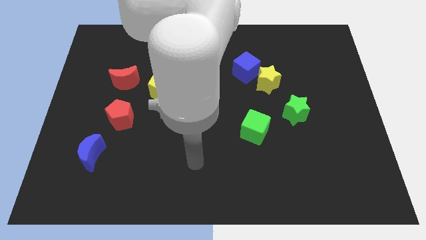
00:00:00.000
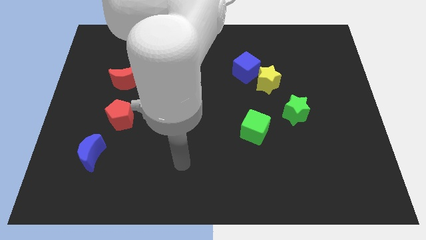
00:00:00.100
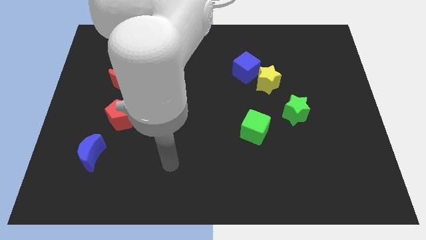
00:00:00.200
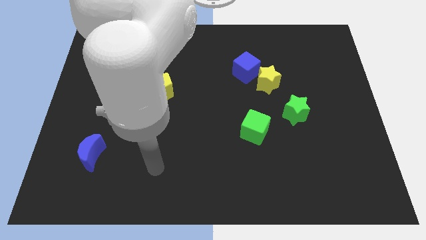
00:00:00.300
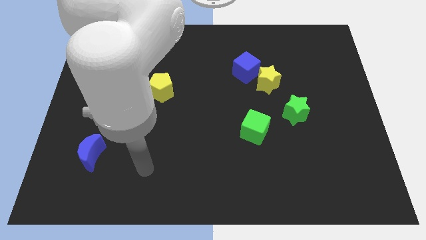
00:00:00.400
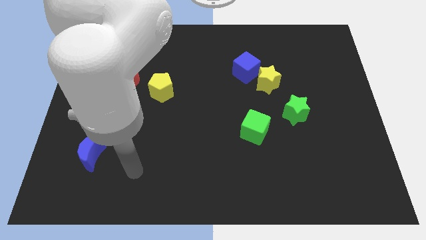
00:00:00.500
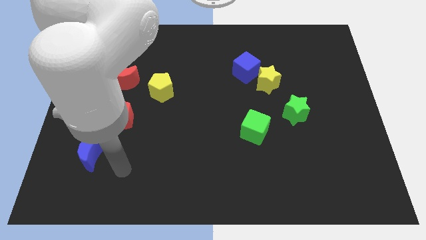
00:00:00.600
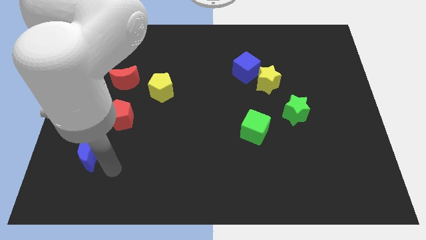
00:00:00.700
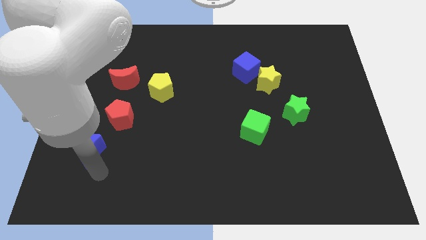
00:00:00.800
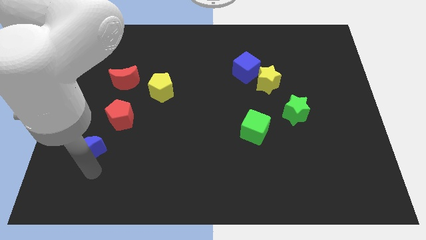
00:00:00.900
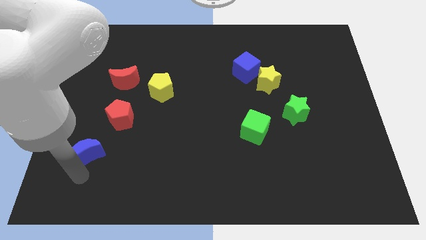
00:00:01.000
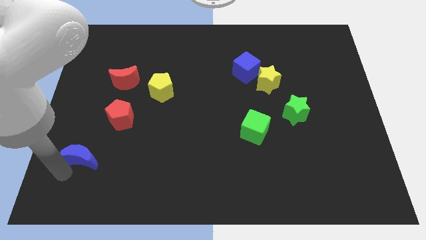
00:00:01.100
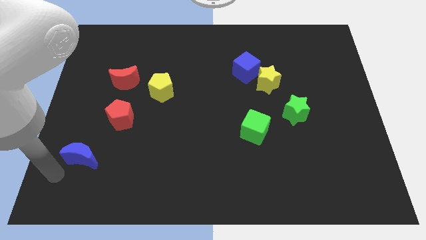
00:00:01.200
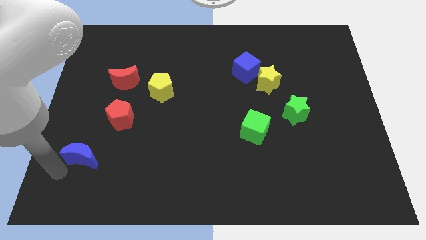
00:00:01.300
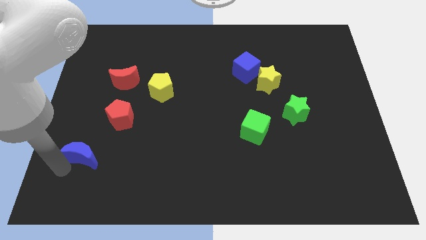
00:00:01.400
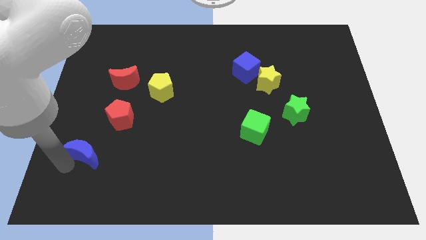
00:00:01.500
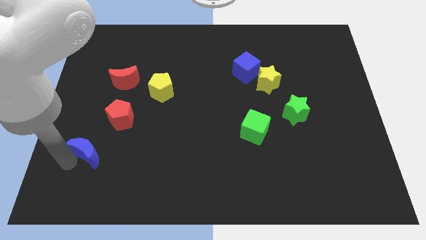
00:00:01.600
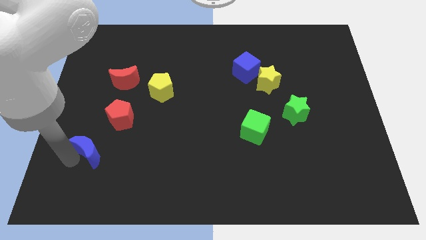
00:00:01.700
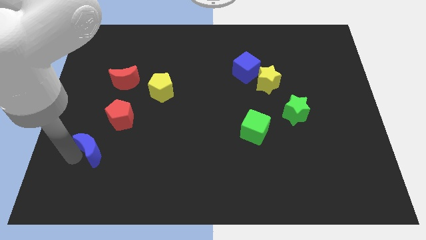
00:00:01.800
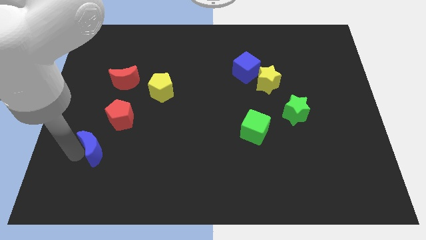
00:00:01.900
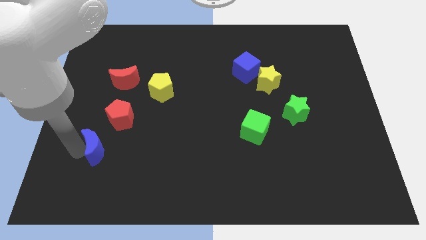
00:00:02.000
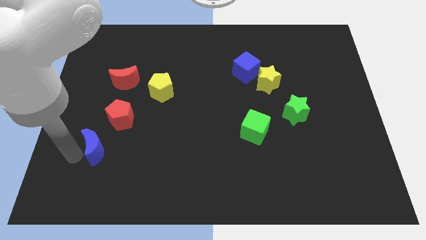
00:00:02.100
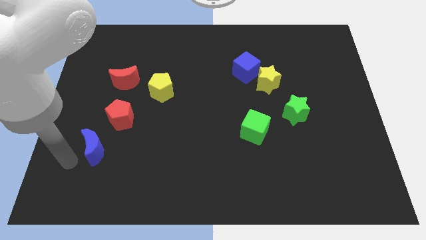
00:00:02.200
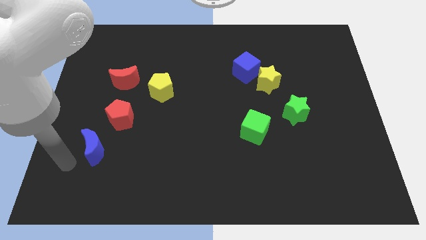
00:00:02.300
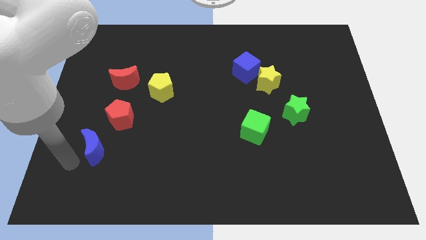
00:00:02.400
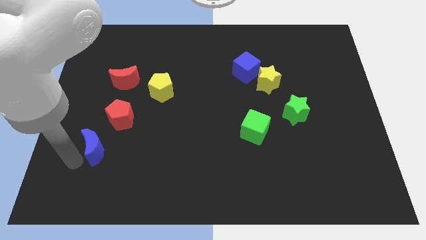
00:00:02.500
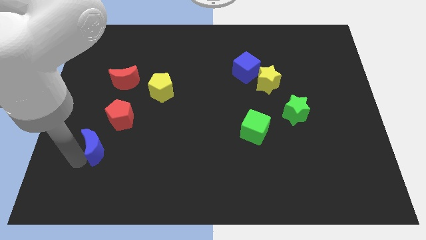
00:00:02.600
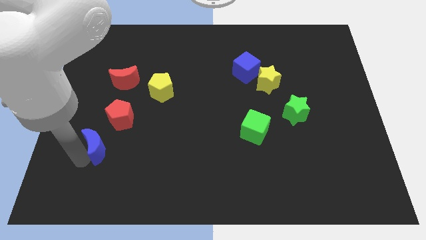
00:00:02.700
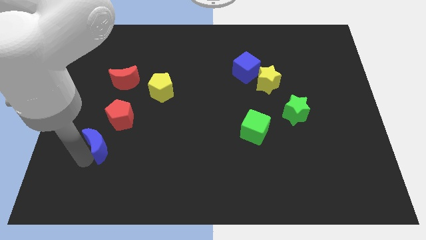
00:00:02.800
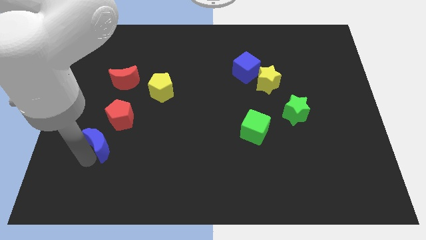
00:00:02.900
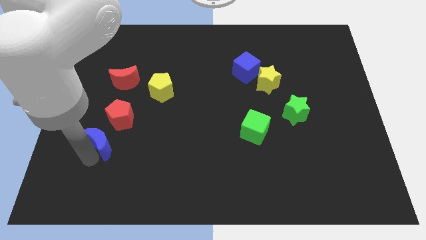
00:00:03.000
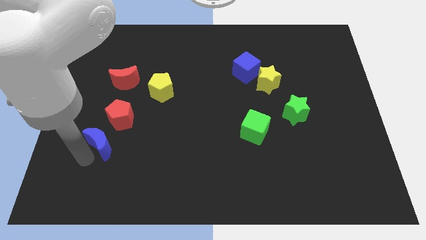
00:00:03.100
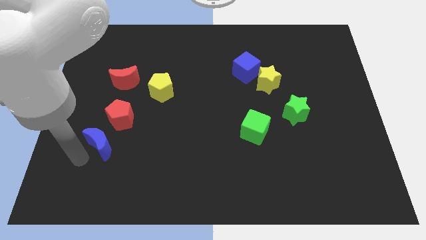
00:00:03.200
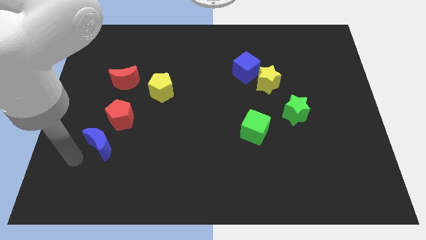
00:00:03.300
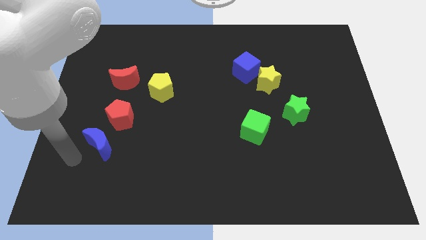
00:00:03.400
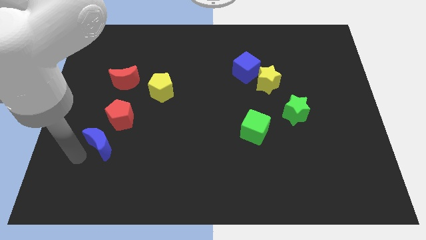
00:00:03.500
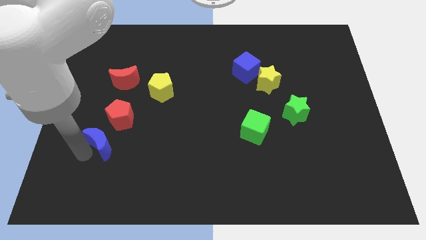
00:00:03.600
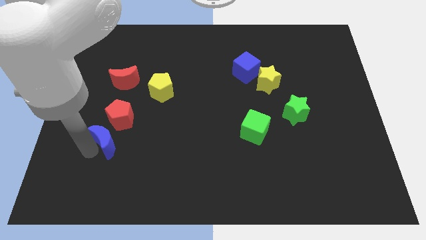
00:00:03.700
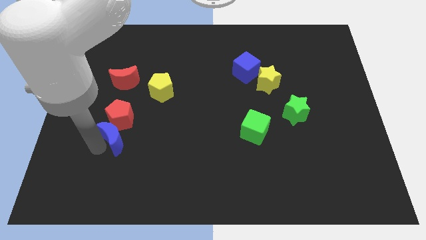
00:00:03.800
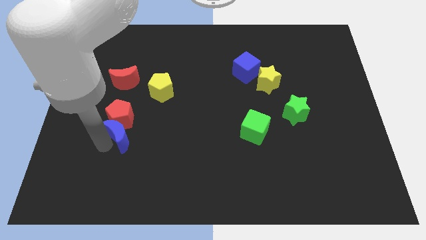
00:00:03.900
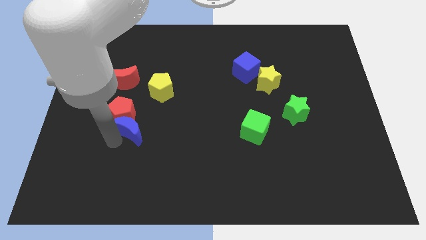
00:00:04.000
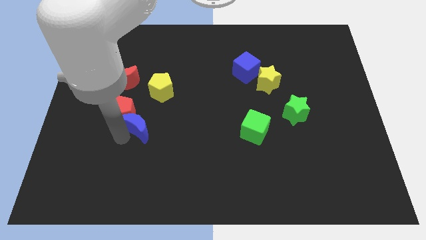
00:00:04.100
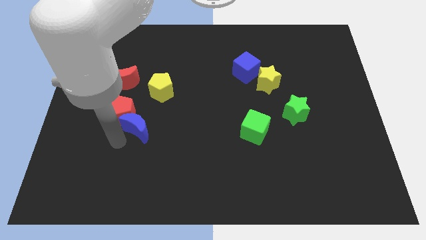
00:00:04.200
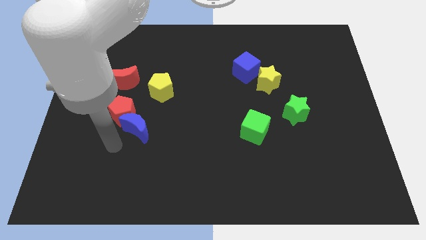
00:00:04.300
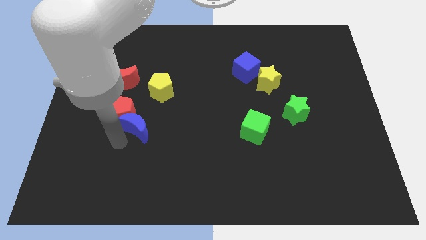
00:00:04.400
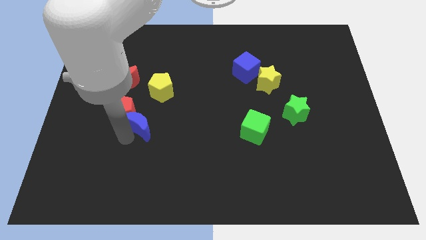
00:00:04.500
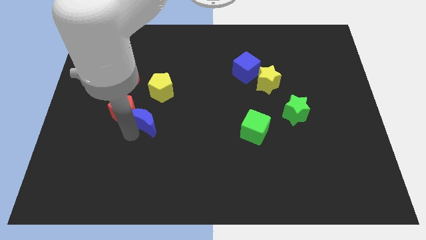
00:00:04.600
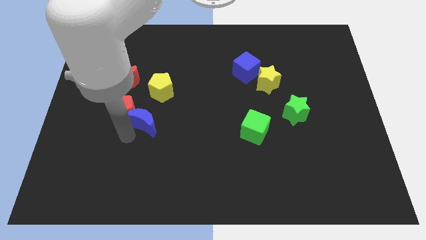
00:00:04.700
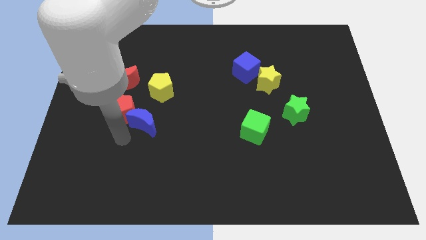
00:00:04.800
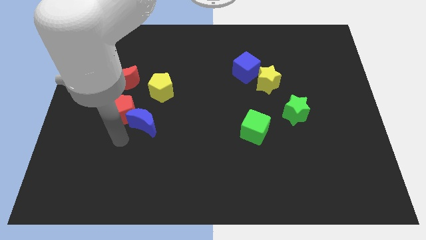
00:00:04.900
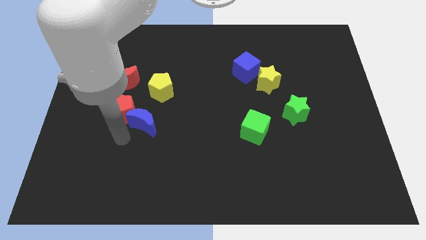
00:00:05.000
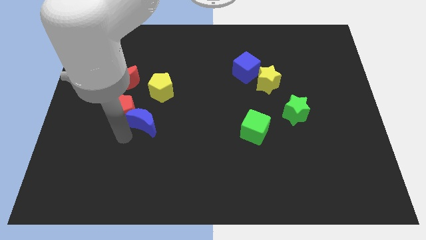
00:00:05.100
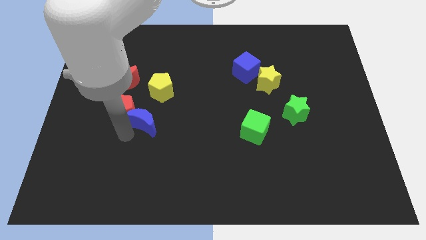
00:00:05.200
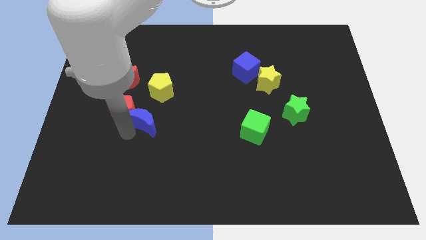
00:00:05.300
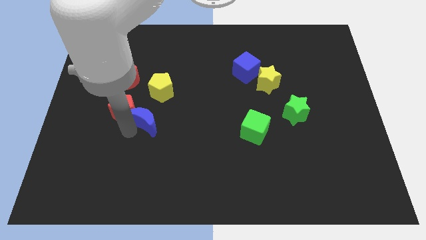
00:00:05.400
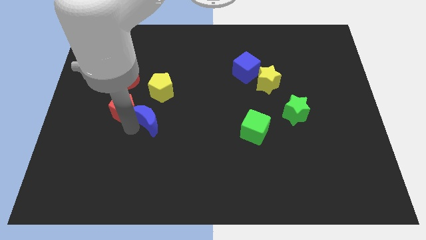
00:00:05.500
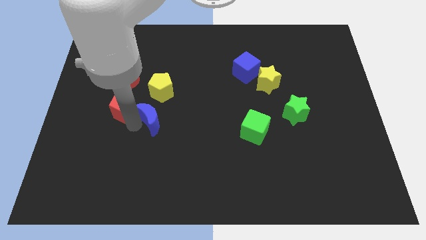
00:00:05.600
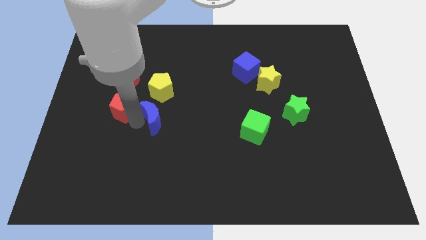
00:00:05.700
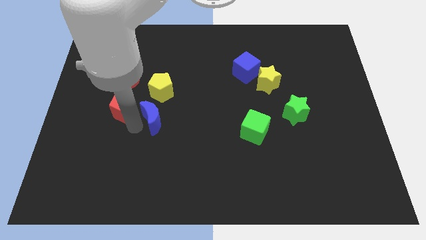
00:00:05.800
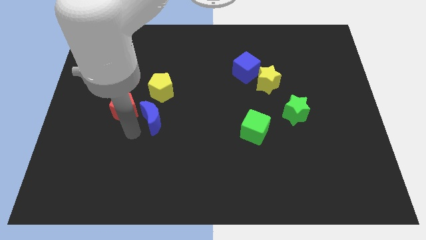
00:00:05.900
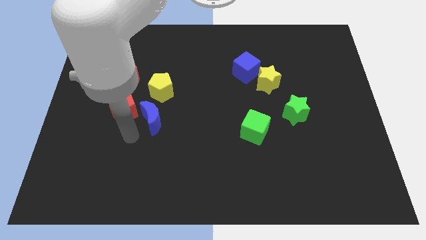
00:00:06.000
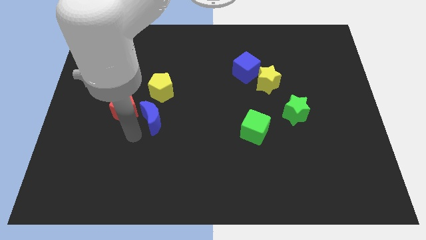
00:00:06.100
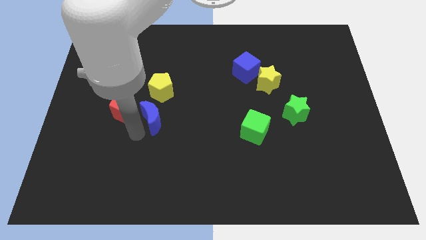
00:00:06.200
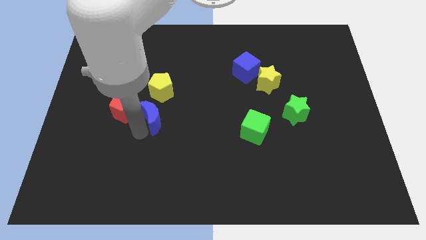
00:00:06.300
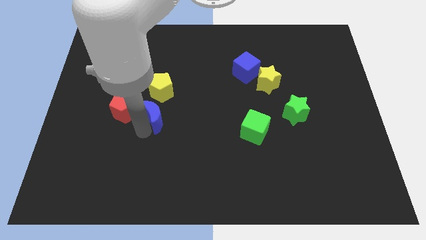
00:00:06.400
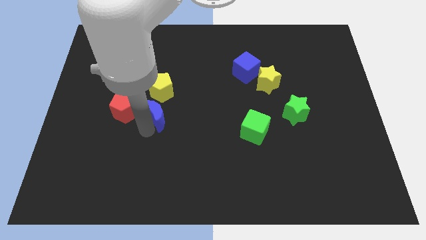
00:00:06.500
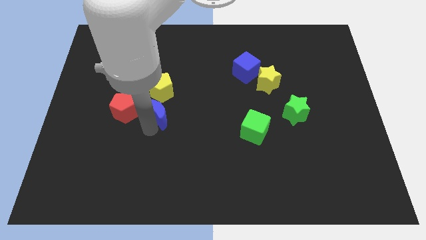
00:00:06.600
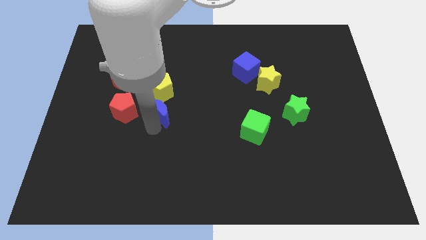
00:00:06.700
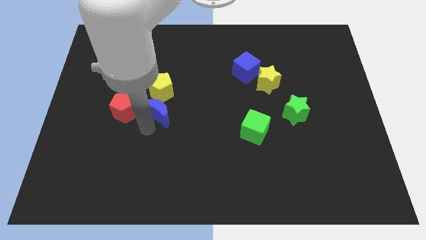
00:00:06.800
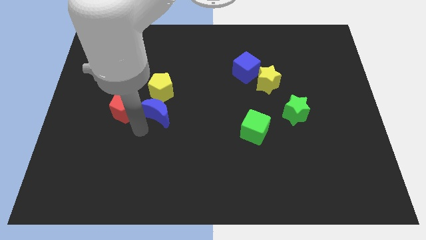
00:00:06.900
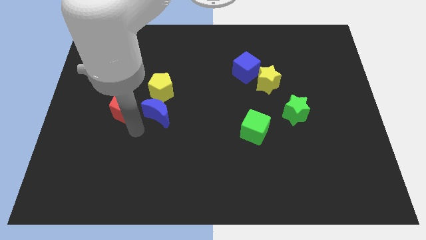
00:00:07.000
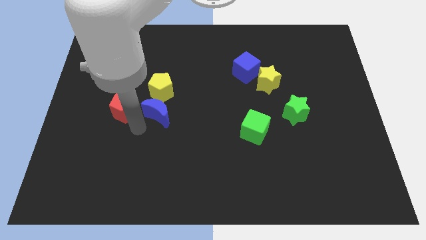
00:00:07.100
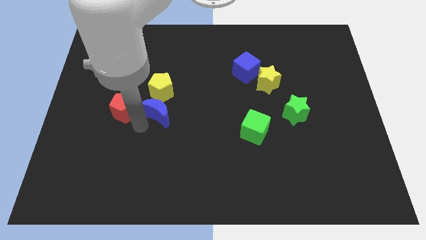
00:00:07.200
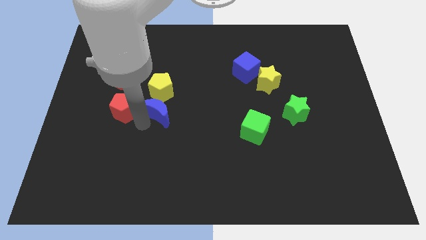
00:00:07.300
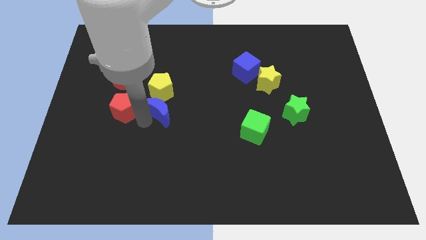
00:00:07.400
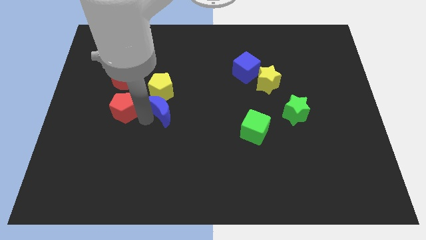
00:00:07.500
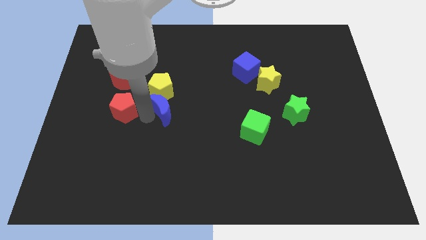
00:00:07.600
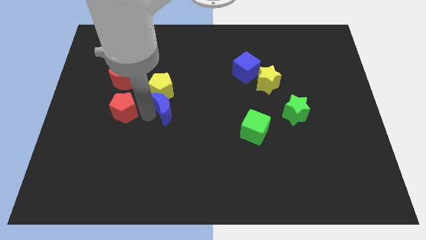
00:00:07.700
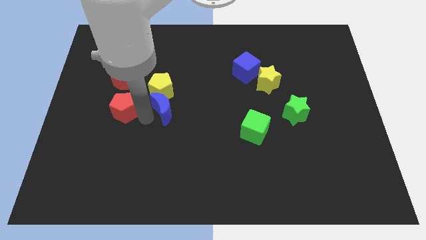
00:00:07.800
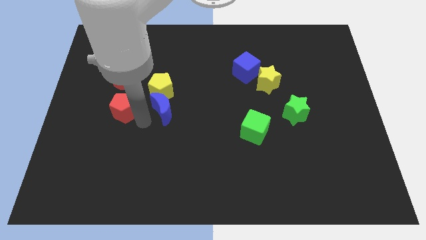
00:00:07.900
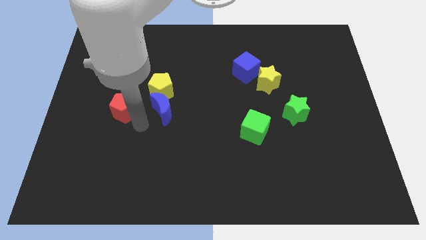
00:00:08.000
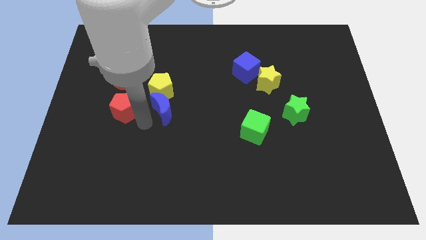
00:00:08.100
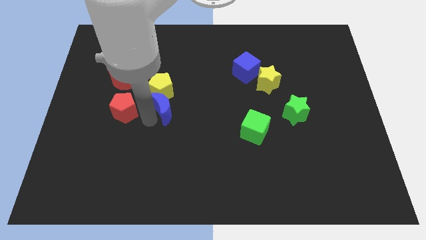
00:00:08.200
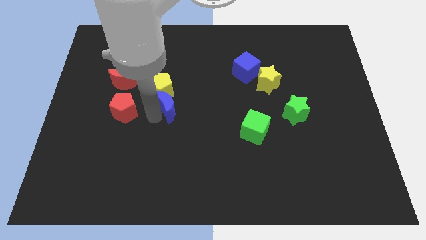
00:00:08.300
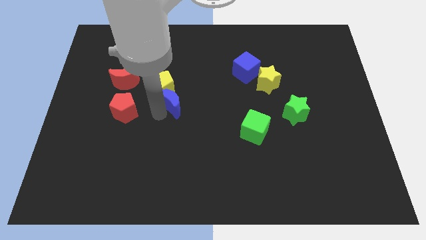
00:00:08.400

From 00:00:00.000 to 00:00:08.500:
push the blue moon upwards and right diagonally
